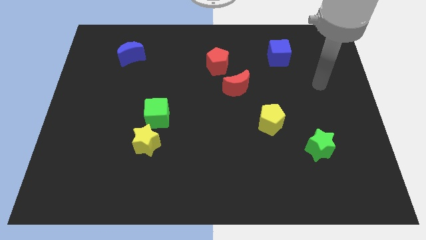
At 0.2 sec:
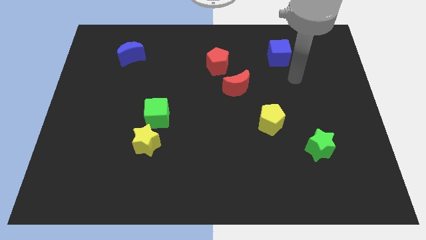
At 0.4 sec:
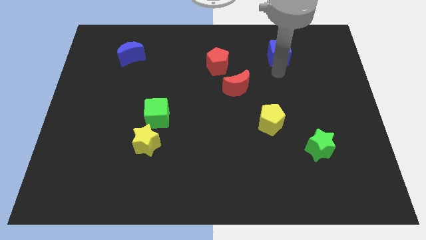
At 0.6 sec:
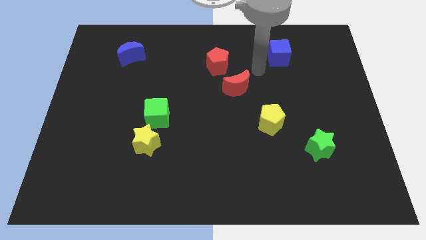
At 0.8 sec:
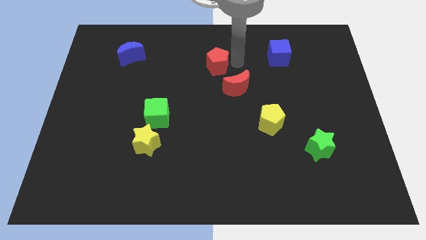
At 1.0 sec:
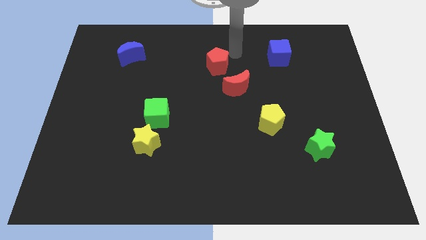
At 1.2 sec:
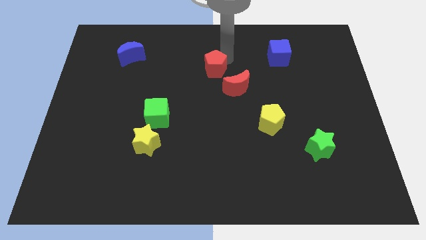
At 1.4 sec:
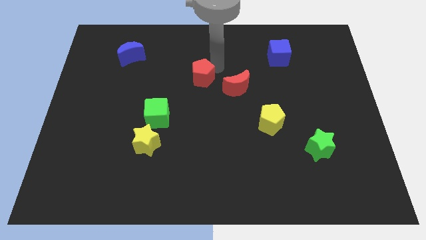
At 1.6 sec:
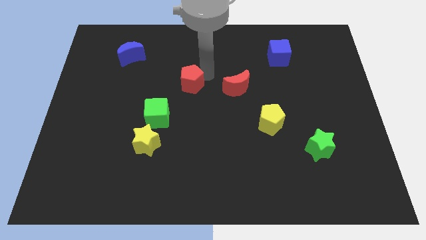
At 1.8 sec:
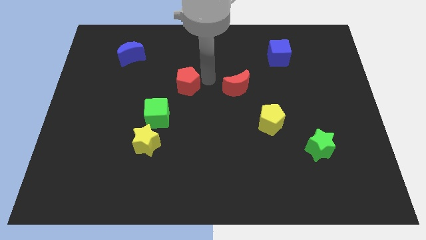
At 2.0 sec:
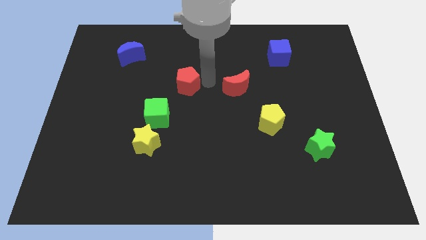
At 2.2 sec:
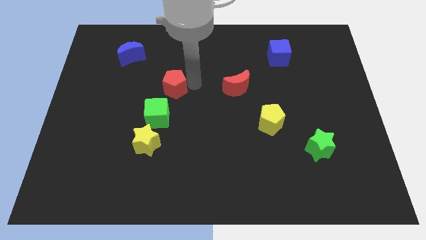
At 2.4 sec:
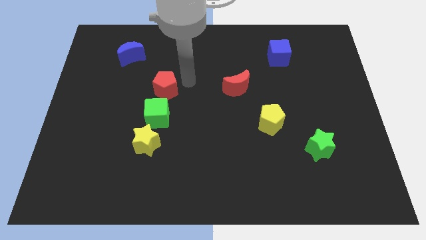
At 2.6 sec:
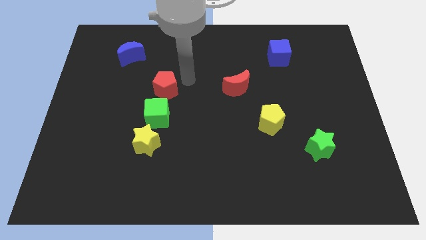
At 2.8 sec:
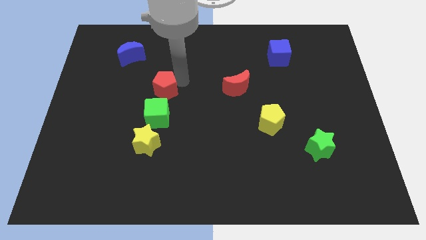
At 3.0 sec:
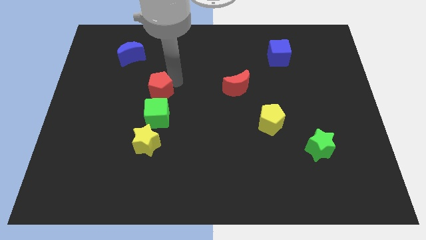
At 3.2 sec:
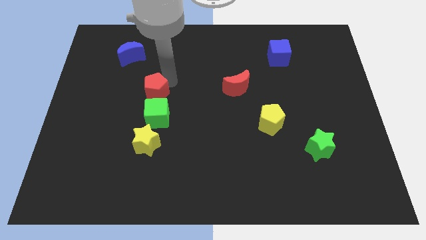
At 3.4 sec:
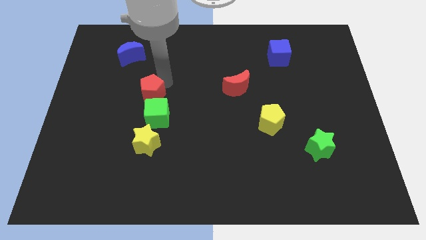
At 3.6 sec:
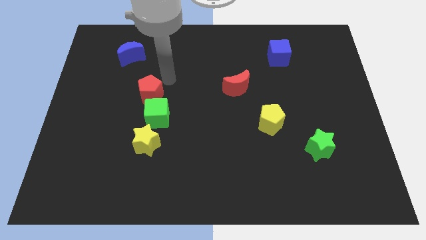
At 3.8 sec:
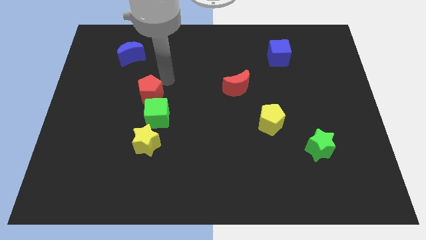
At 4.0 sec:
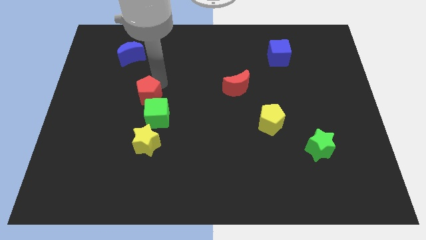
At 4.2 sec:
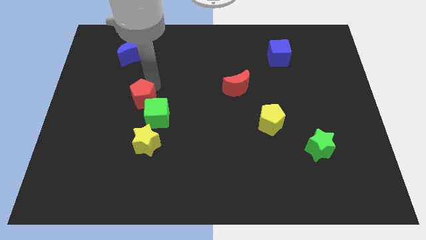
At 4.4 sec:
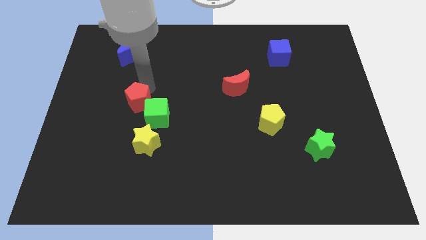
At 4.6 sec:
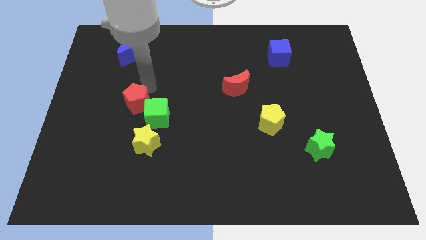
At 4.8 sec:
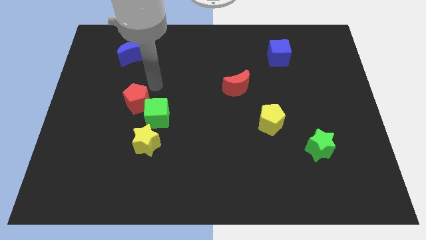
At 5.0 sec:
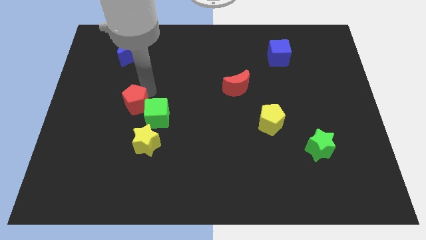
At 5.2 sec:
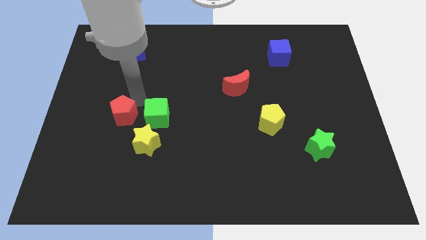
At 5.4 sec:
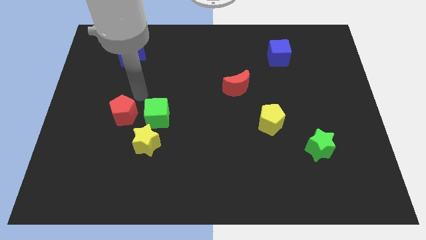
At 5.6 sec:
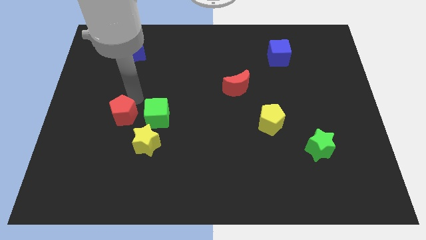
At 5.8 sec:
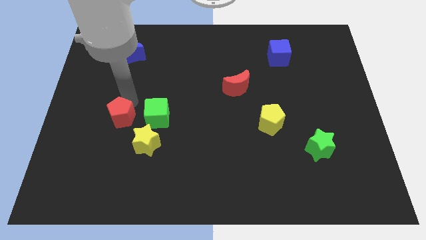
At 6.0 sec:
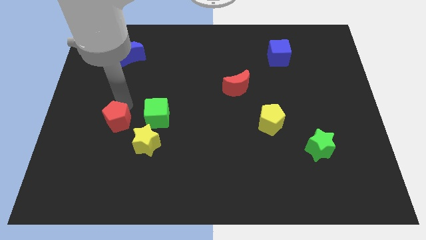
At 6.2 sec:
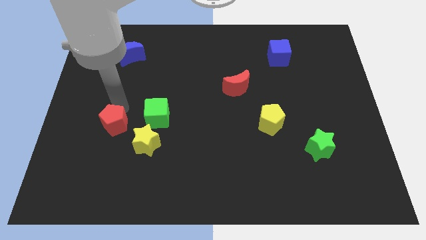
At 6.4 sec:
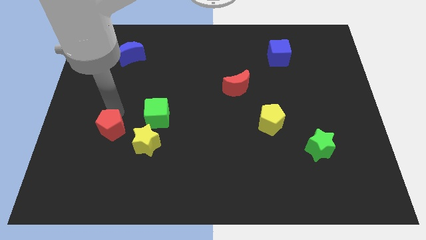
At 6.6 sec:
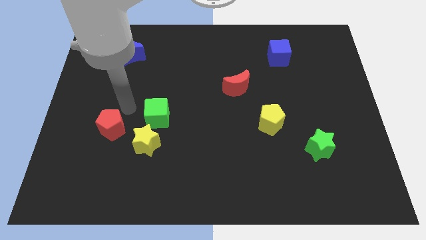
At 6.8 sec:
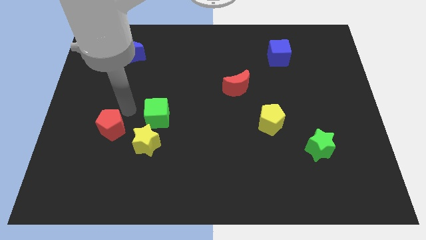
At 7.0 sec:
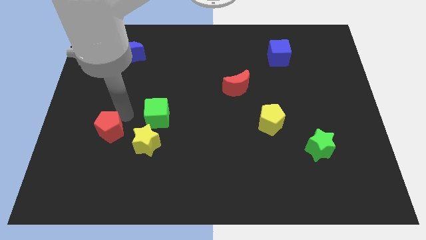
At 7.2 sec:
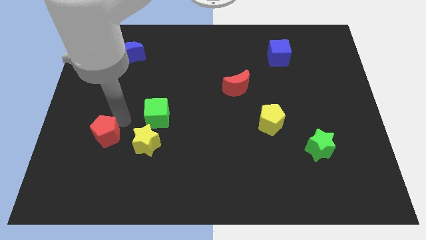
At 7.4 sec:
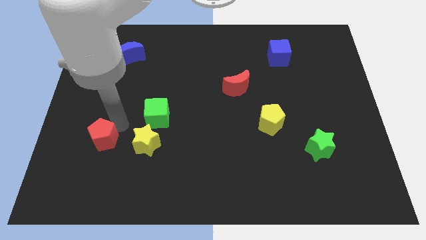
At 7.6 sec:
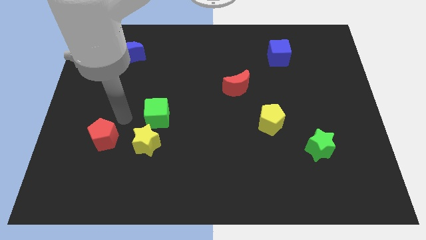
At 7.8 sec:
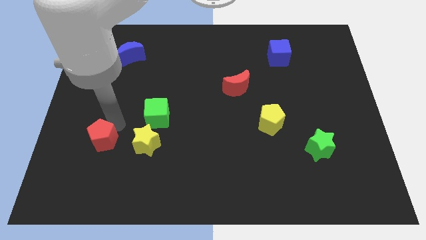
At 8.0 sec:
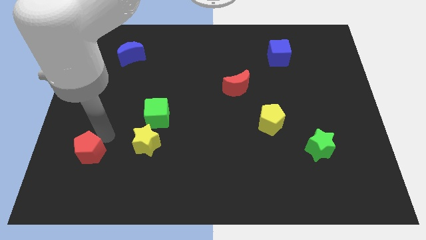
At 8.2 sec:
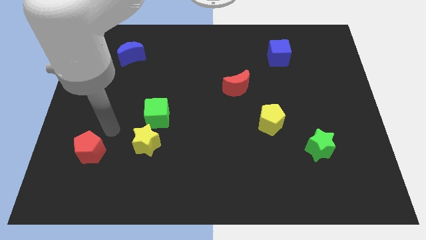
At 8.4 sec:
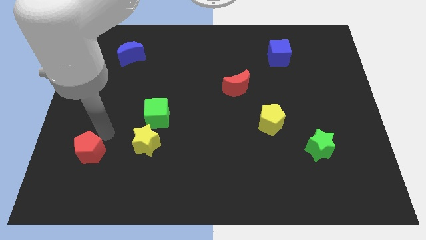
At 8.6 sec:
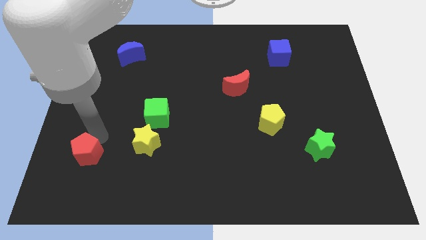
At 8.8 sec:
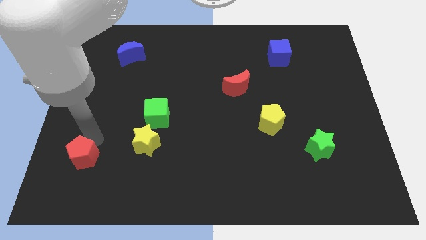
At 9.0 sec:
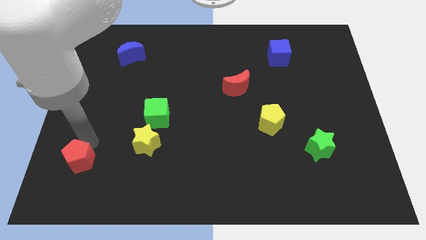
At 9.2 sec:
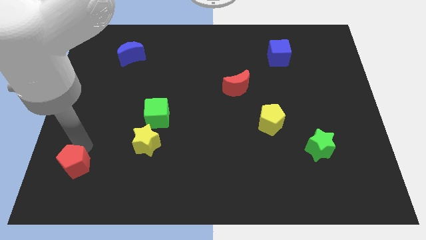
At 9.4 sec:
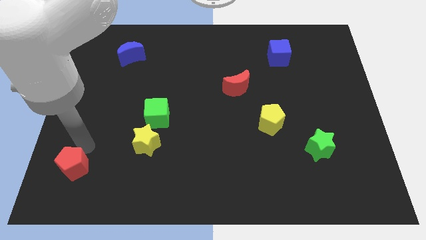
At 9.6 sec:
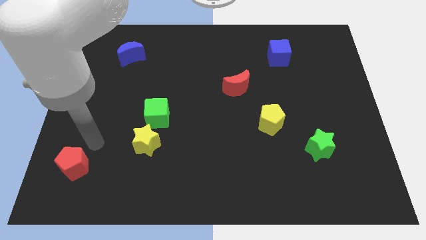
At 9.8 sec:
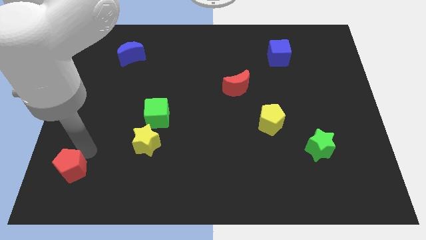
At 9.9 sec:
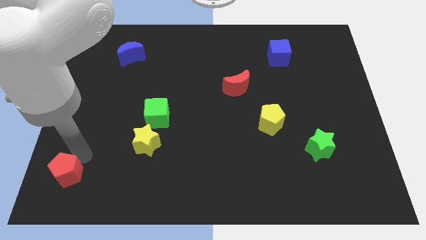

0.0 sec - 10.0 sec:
move the red pentagon to the bottom left of the board
